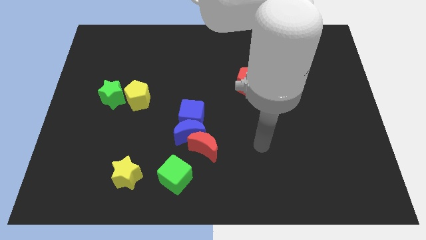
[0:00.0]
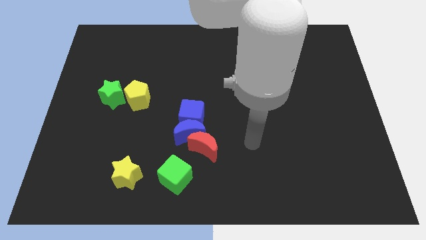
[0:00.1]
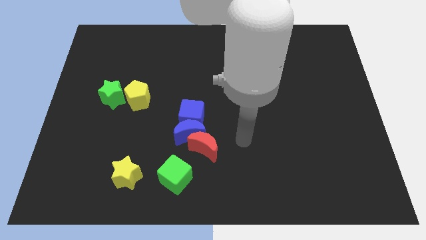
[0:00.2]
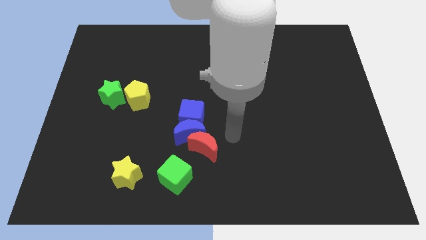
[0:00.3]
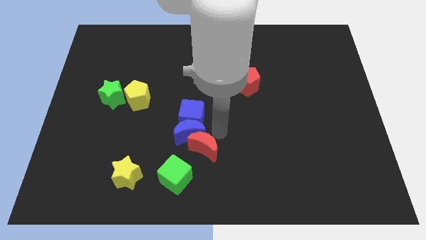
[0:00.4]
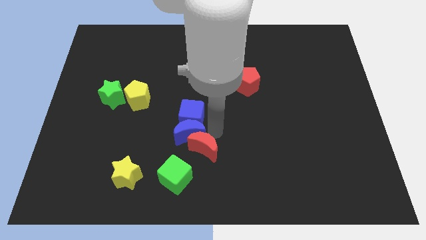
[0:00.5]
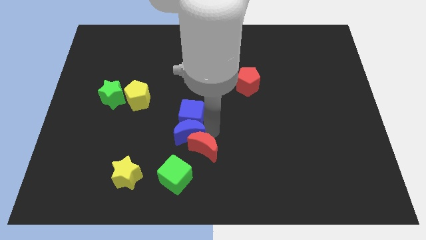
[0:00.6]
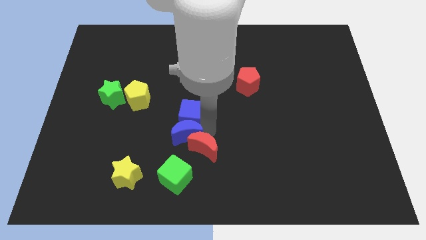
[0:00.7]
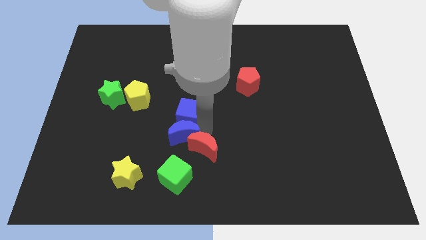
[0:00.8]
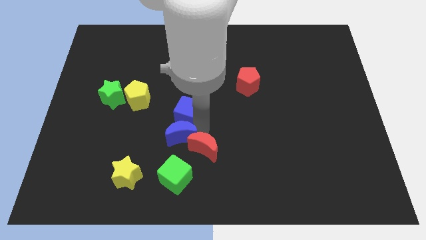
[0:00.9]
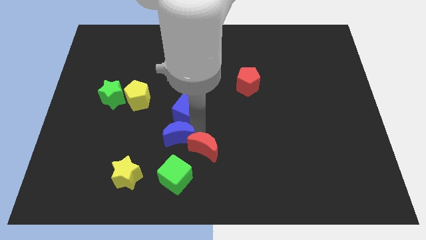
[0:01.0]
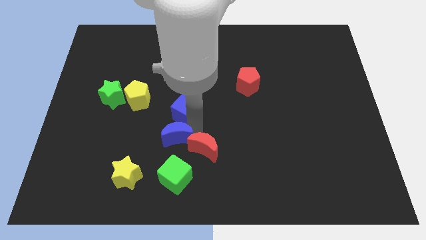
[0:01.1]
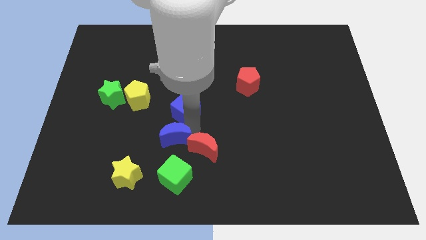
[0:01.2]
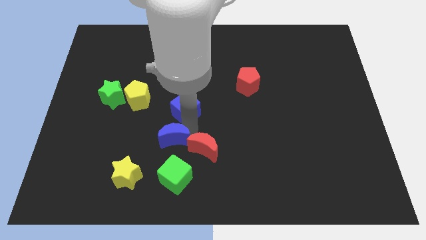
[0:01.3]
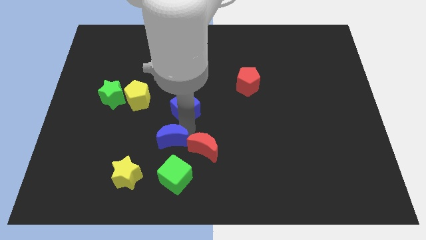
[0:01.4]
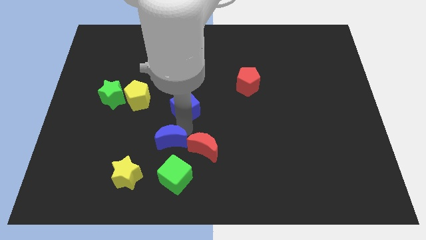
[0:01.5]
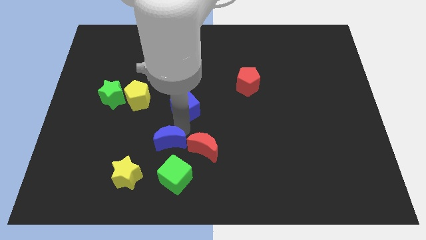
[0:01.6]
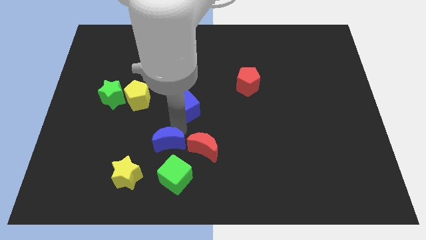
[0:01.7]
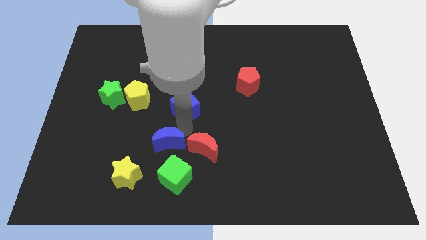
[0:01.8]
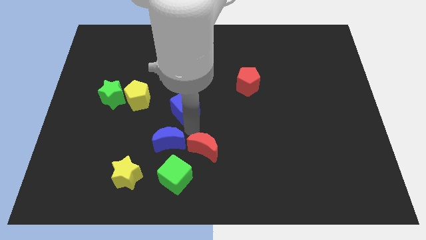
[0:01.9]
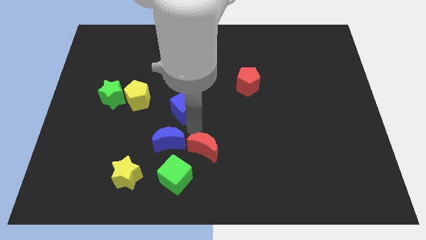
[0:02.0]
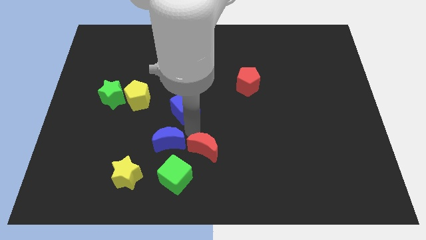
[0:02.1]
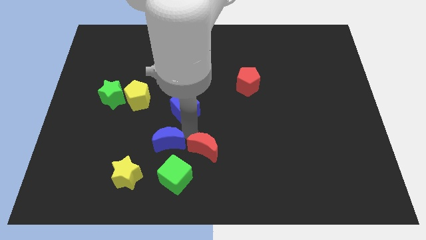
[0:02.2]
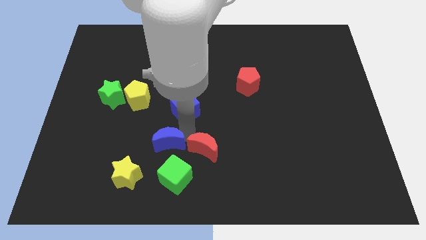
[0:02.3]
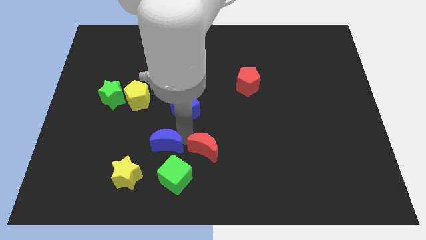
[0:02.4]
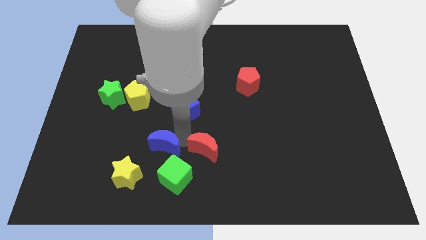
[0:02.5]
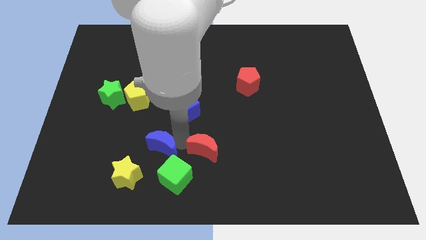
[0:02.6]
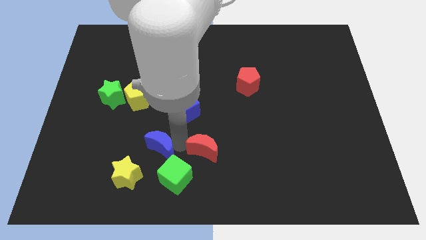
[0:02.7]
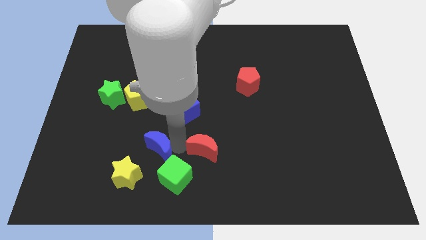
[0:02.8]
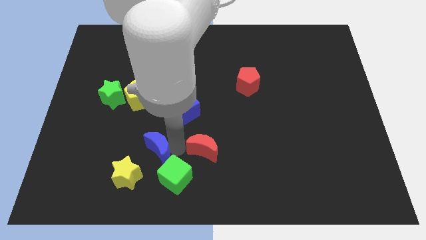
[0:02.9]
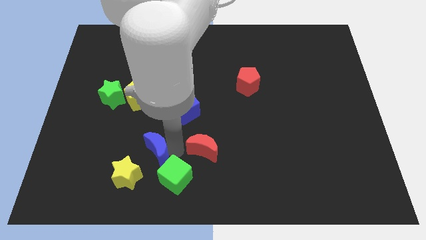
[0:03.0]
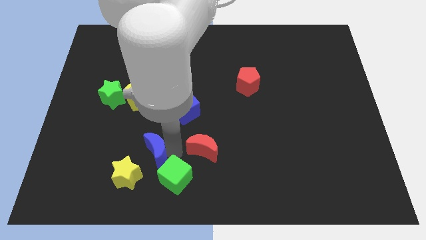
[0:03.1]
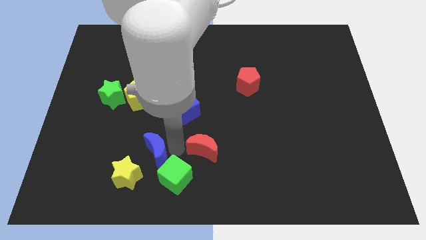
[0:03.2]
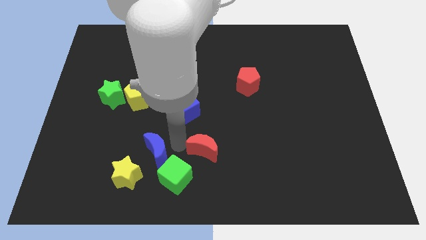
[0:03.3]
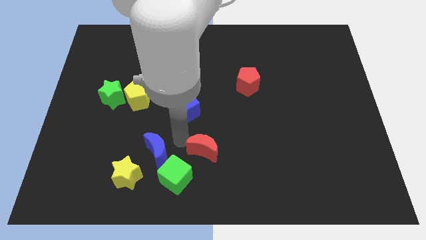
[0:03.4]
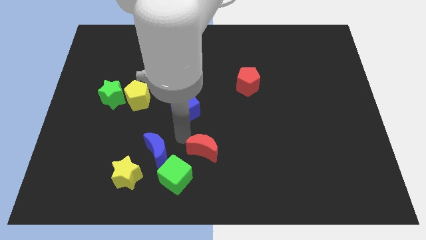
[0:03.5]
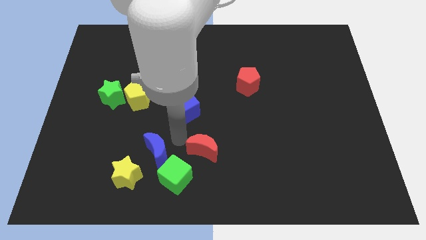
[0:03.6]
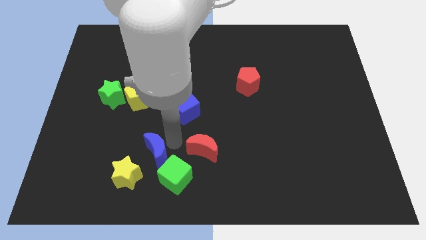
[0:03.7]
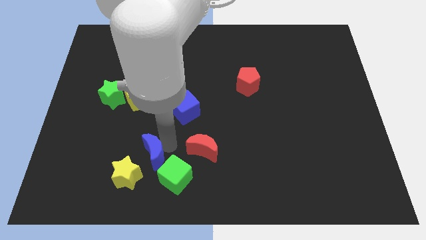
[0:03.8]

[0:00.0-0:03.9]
pull the blue moon apart from the blue cube and red moon

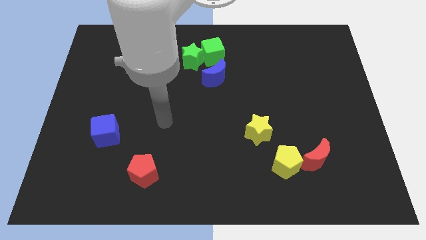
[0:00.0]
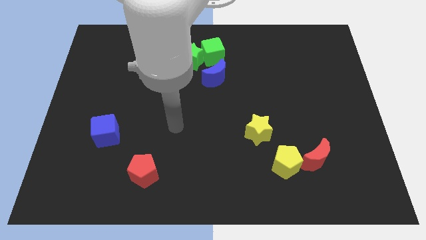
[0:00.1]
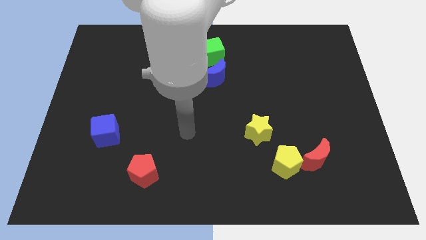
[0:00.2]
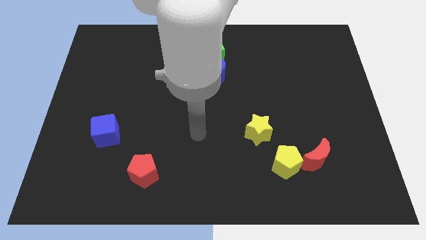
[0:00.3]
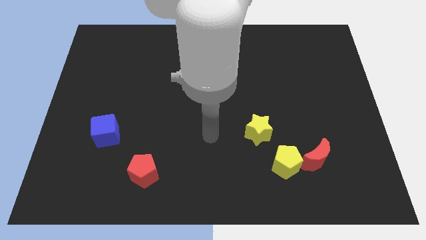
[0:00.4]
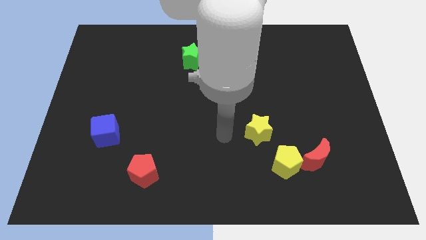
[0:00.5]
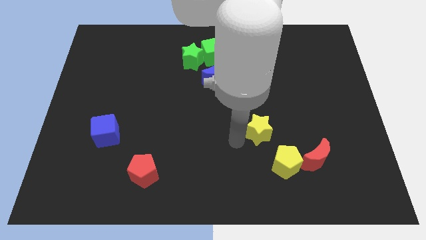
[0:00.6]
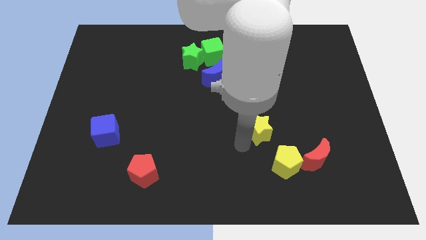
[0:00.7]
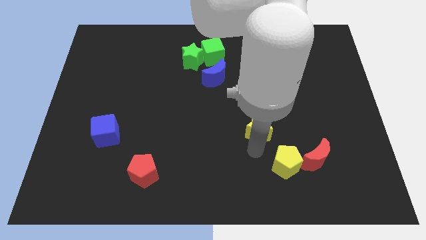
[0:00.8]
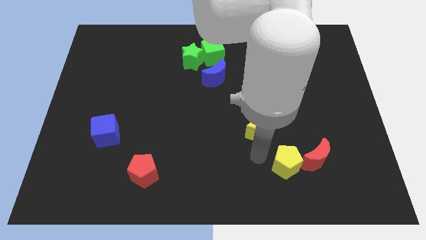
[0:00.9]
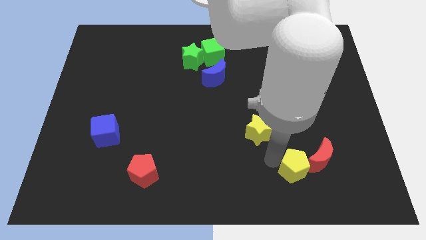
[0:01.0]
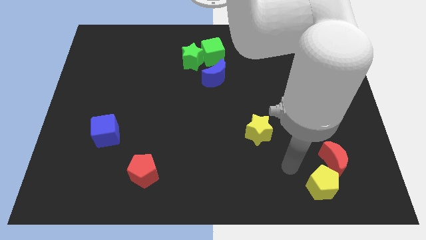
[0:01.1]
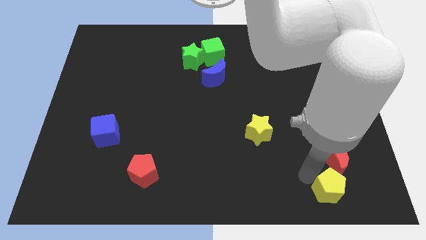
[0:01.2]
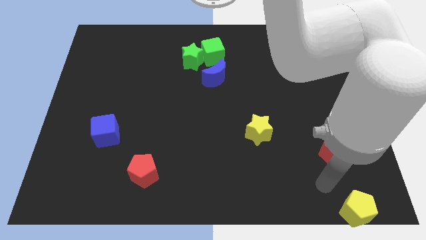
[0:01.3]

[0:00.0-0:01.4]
pull the red moon apart from the yellow pentagon

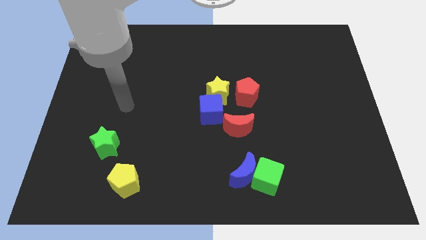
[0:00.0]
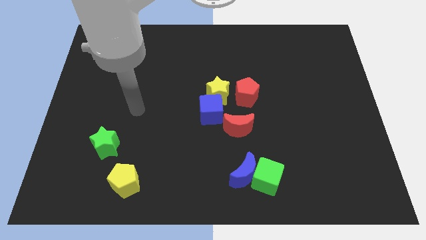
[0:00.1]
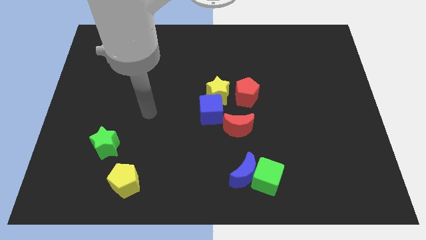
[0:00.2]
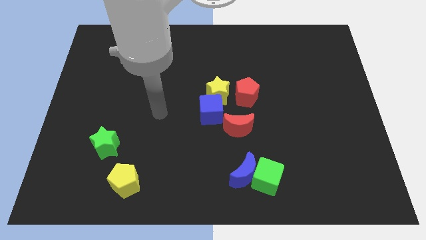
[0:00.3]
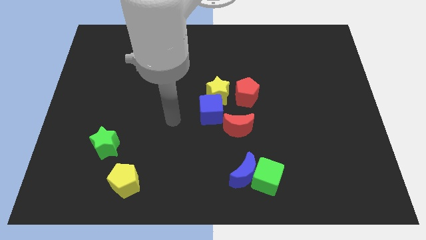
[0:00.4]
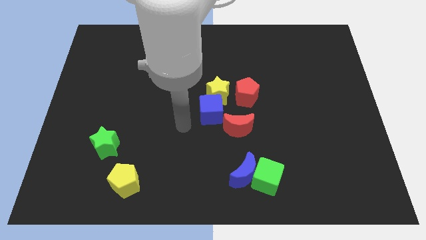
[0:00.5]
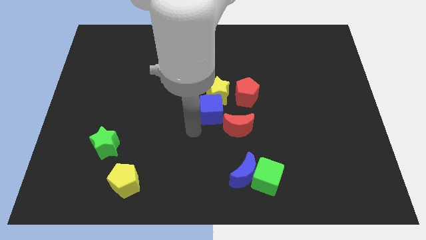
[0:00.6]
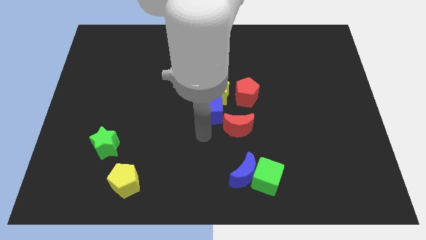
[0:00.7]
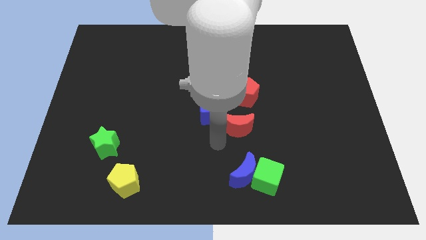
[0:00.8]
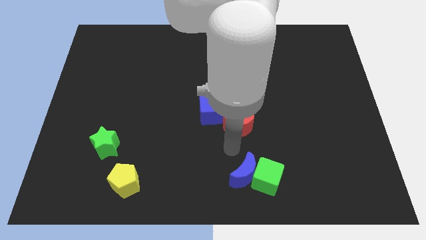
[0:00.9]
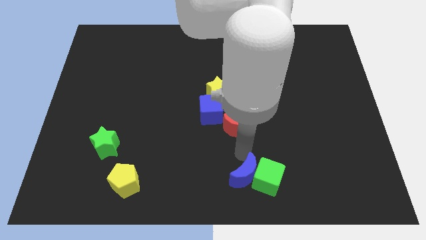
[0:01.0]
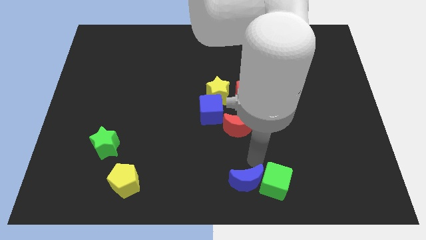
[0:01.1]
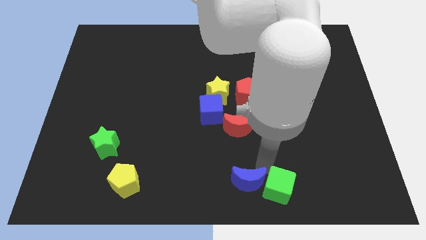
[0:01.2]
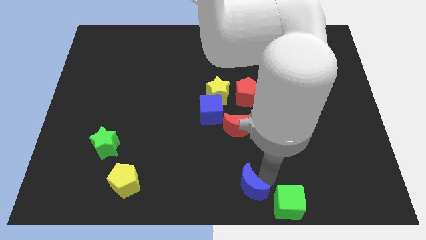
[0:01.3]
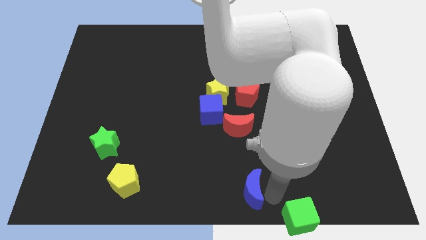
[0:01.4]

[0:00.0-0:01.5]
move the blue moon away from the green cube

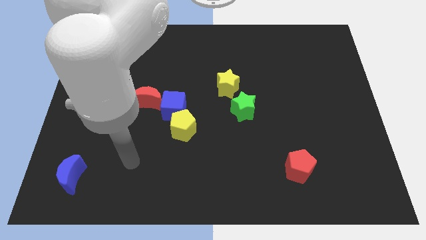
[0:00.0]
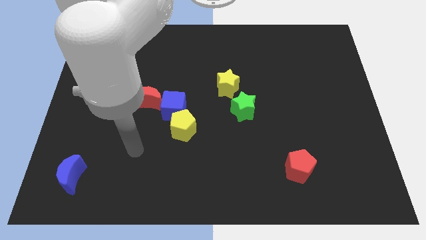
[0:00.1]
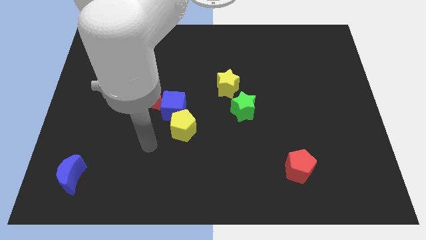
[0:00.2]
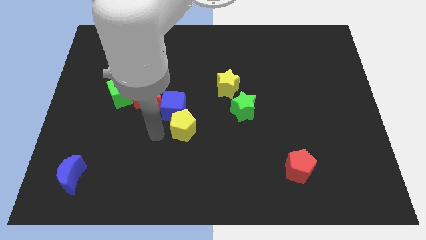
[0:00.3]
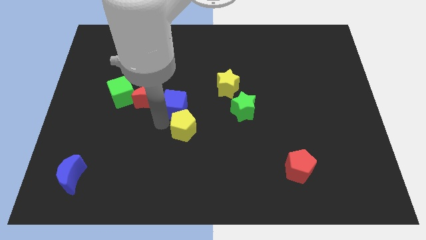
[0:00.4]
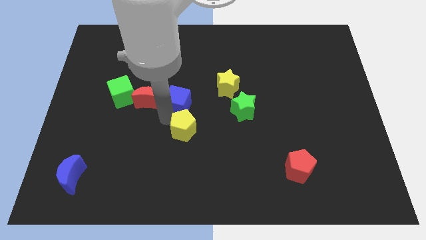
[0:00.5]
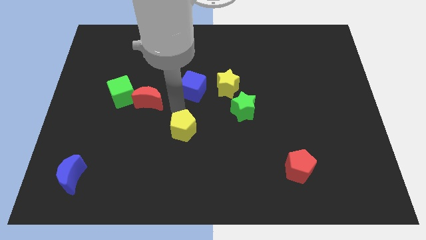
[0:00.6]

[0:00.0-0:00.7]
pull the yellow pentagon apart from the blue cube

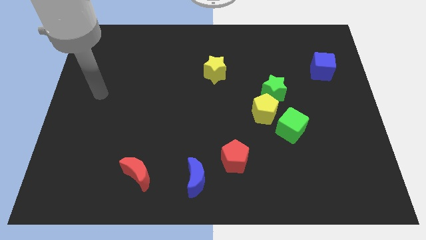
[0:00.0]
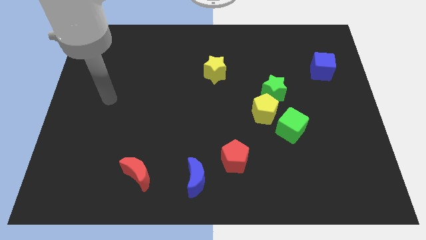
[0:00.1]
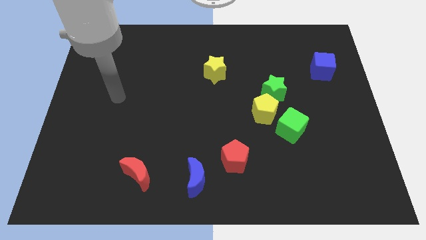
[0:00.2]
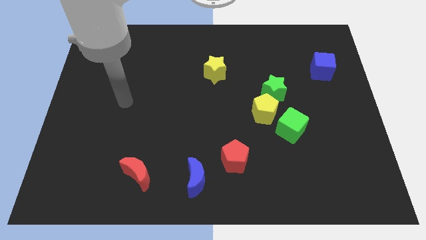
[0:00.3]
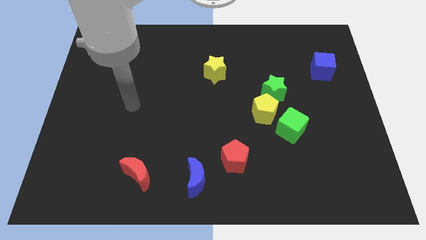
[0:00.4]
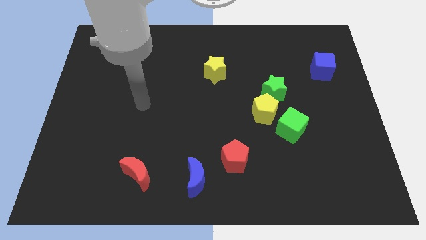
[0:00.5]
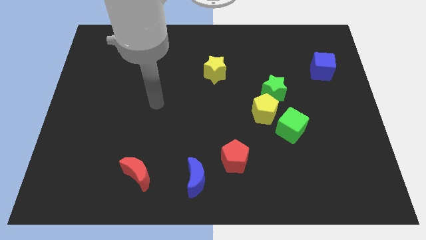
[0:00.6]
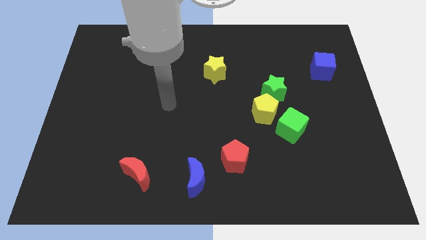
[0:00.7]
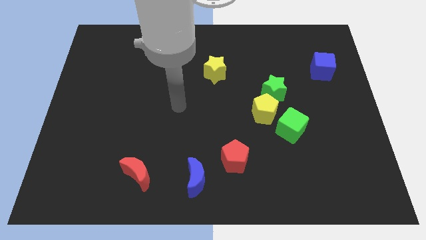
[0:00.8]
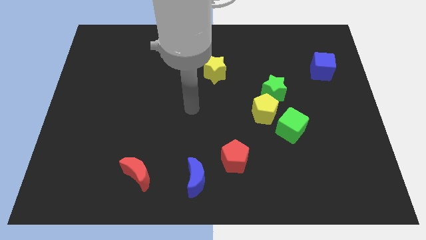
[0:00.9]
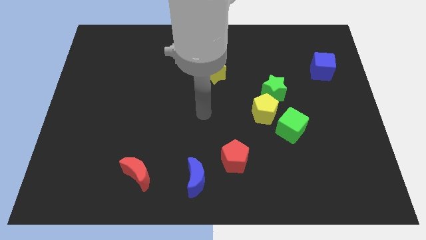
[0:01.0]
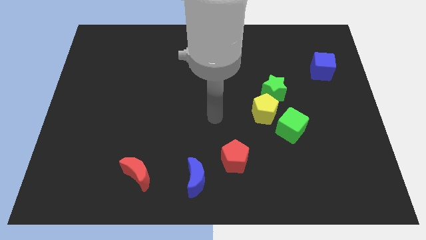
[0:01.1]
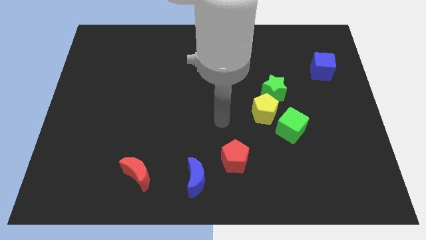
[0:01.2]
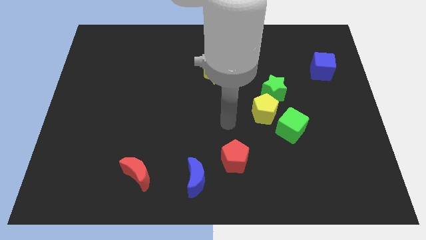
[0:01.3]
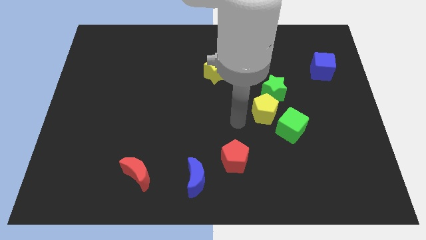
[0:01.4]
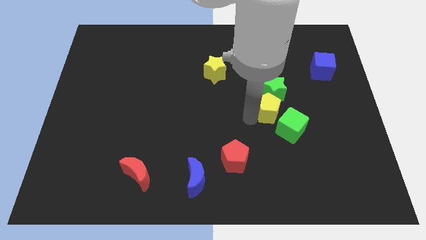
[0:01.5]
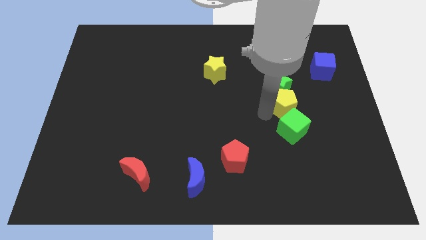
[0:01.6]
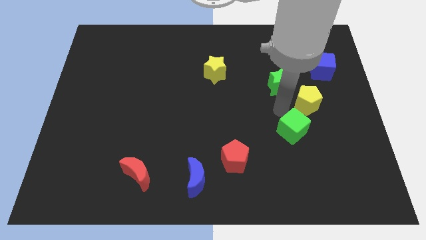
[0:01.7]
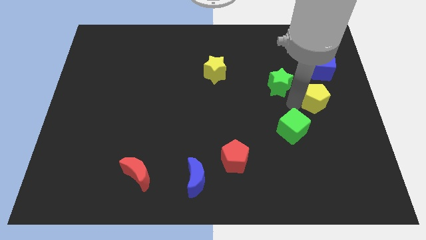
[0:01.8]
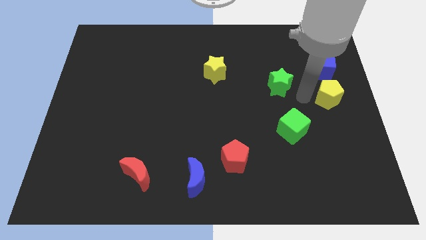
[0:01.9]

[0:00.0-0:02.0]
pull the green star apart from the yellow pentagon
